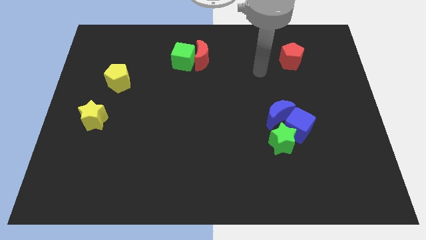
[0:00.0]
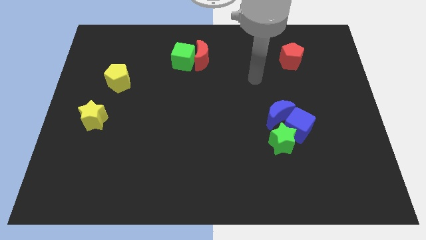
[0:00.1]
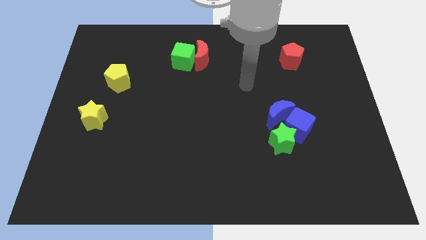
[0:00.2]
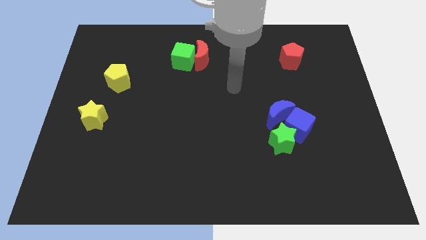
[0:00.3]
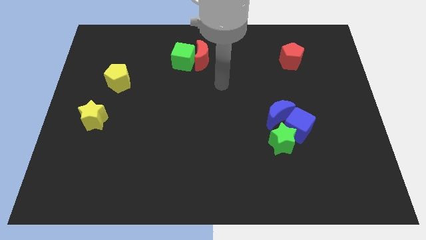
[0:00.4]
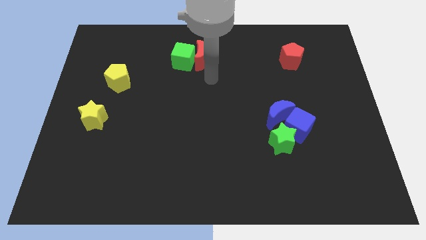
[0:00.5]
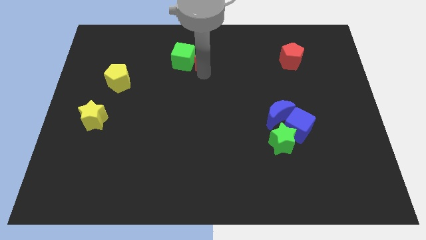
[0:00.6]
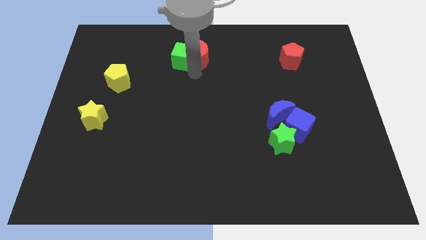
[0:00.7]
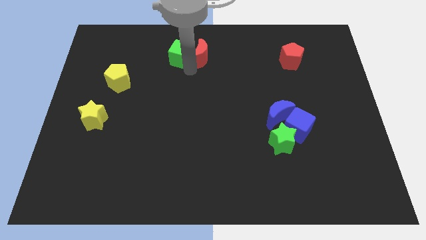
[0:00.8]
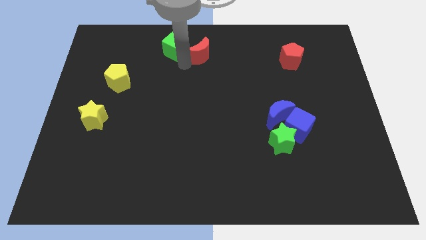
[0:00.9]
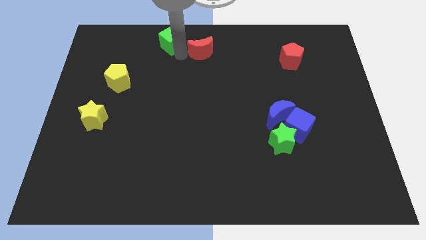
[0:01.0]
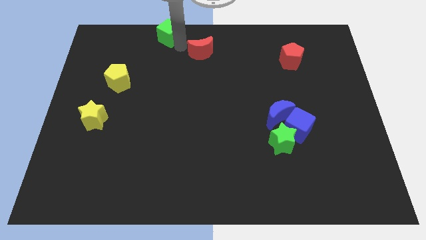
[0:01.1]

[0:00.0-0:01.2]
move the red moon away from the green cube

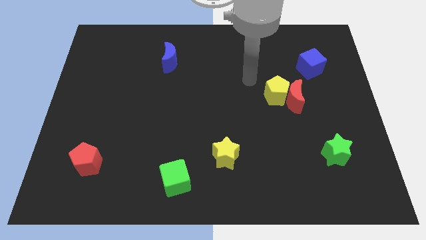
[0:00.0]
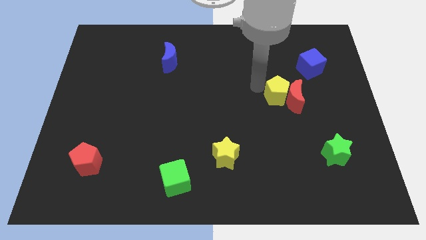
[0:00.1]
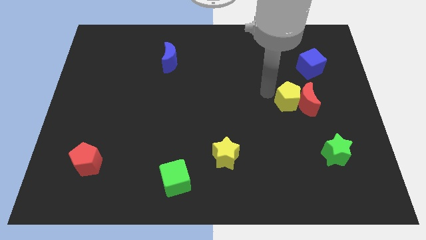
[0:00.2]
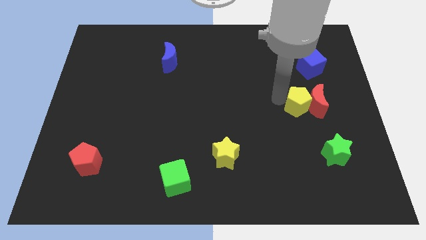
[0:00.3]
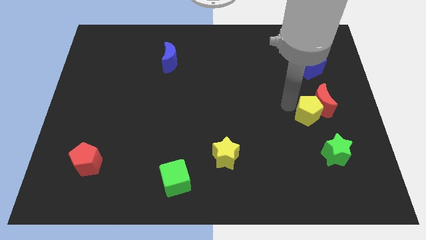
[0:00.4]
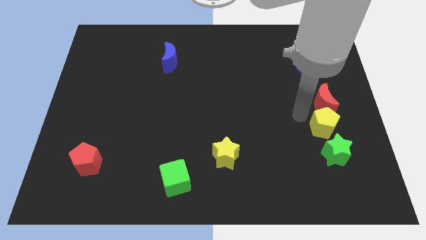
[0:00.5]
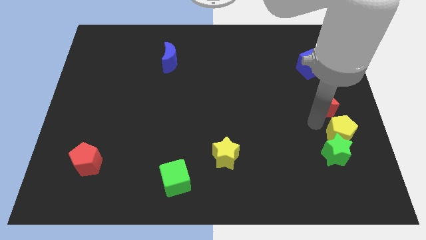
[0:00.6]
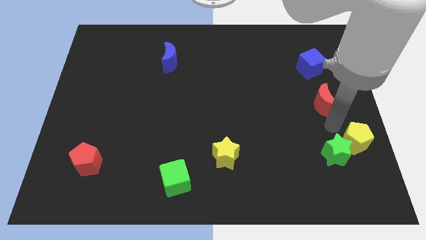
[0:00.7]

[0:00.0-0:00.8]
move the red moon away from the yellow pentagon

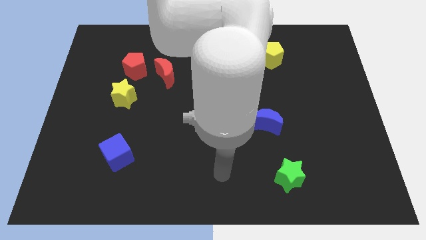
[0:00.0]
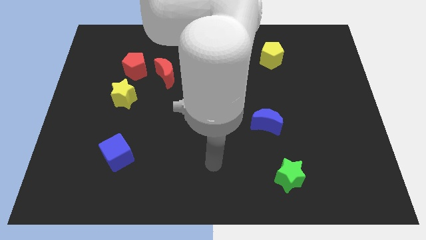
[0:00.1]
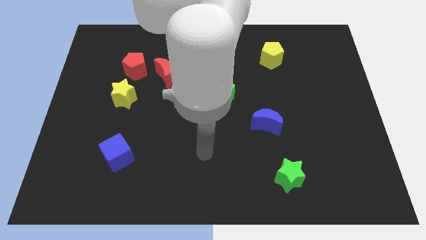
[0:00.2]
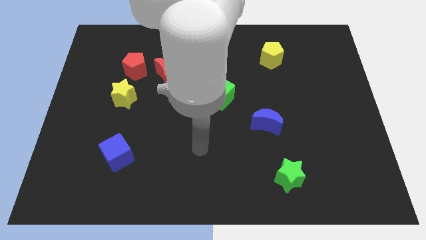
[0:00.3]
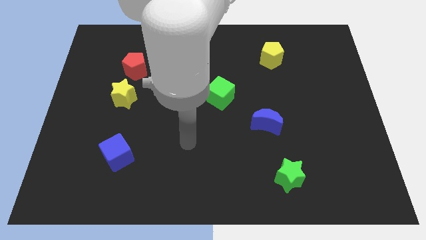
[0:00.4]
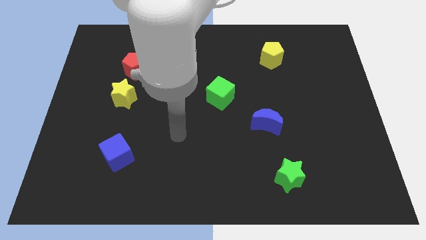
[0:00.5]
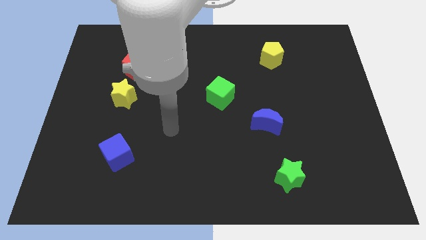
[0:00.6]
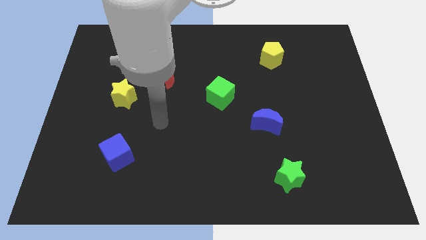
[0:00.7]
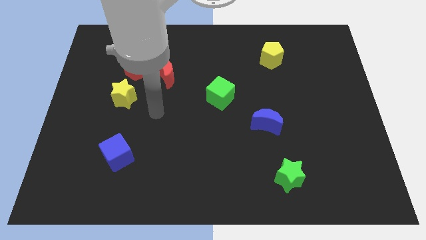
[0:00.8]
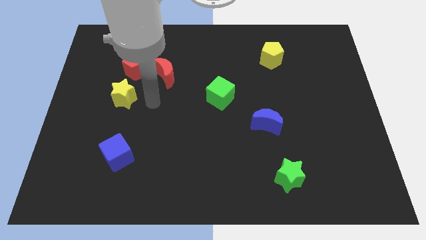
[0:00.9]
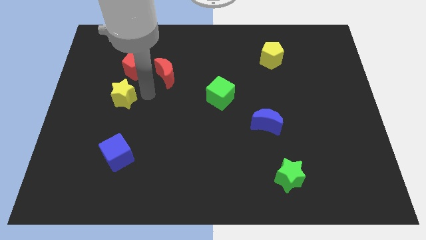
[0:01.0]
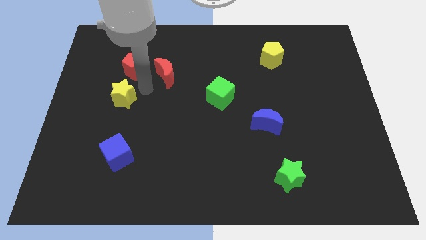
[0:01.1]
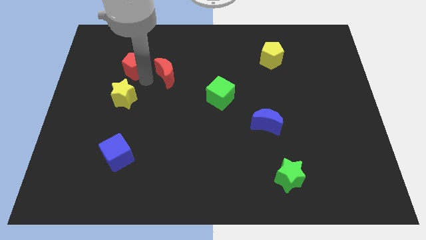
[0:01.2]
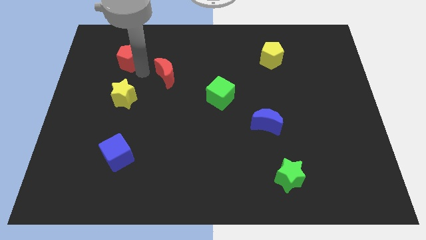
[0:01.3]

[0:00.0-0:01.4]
pull the red moon apart from the red pentagon

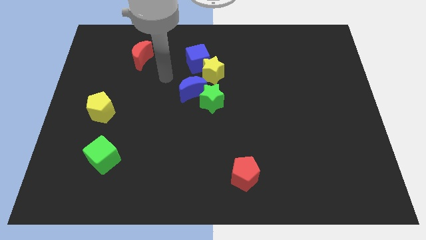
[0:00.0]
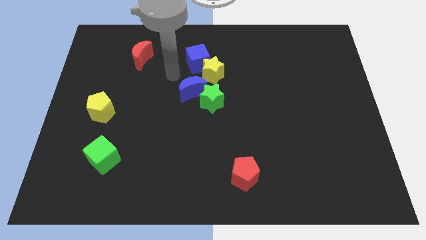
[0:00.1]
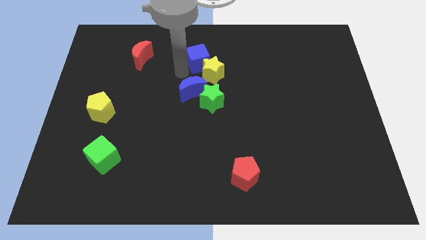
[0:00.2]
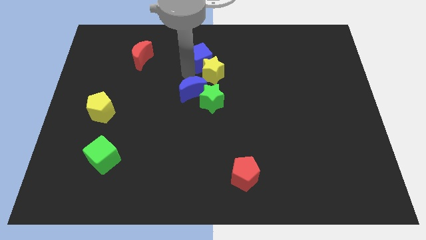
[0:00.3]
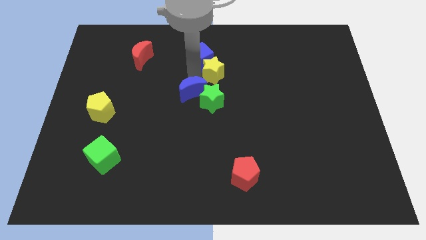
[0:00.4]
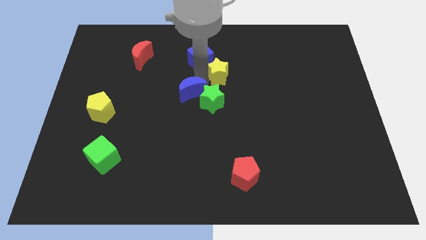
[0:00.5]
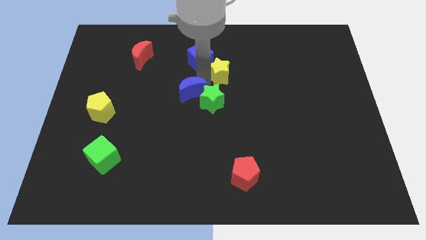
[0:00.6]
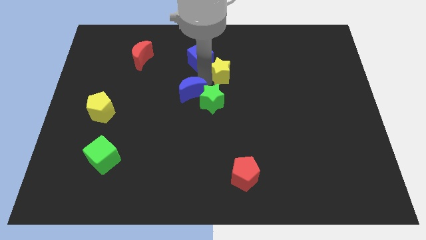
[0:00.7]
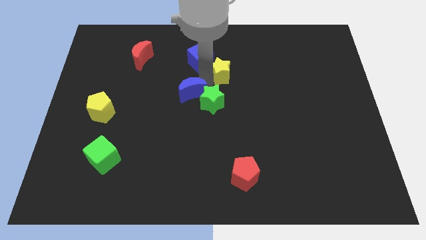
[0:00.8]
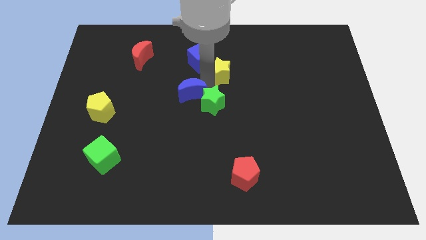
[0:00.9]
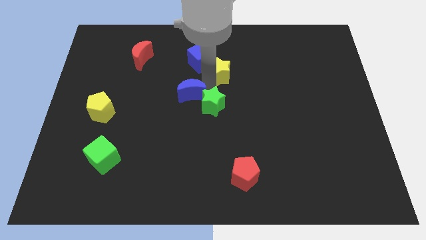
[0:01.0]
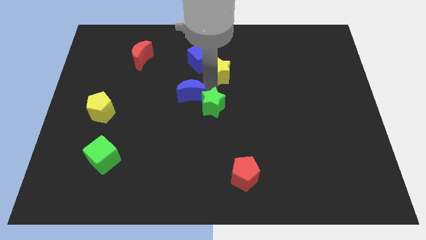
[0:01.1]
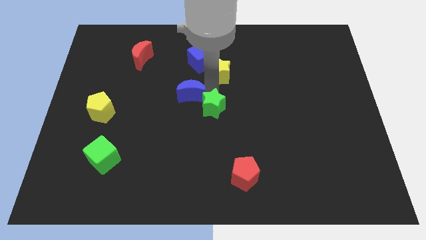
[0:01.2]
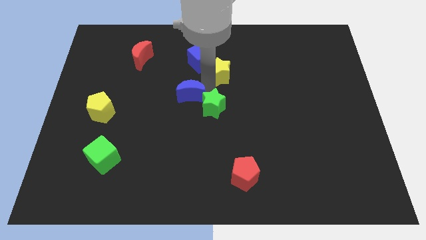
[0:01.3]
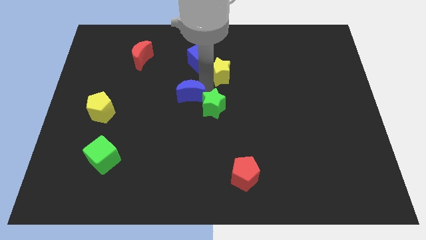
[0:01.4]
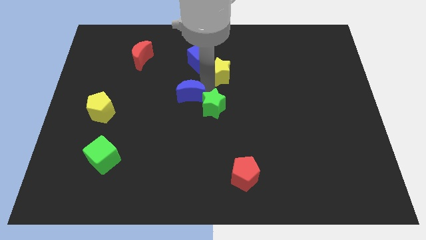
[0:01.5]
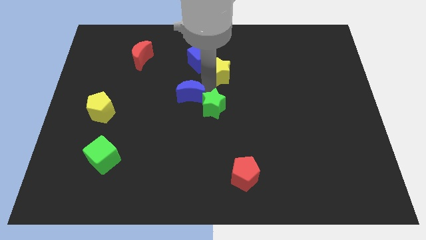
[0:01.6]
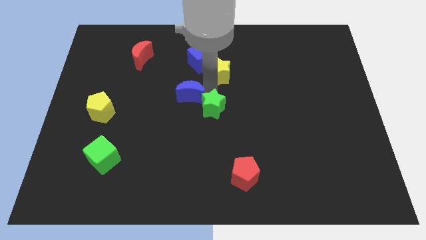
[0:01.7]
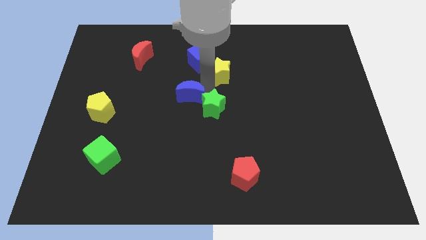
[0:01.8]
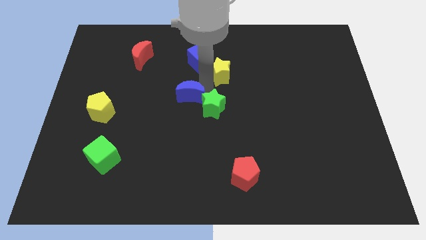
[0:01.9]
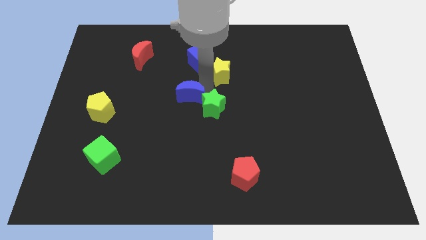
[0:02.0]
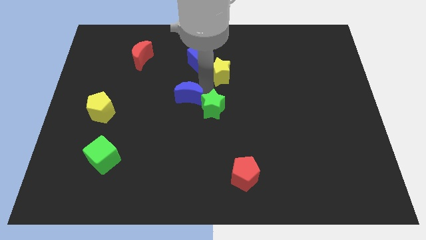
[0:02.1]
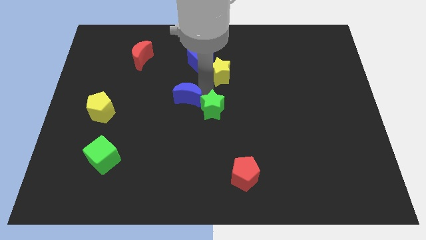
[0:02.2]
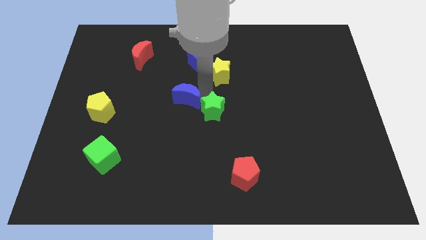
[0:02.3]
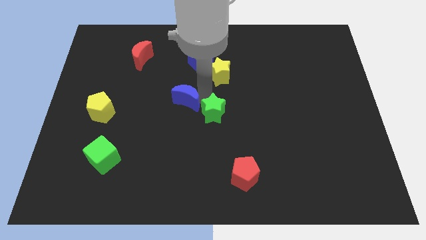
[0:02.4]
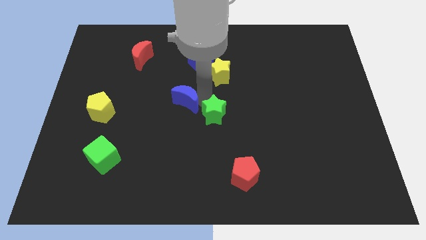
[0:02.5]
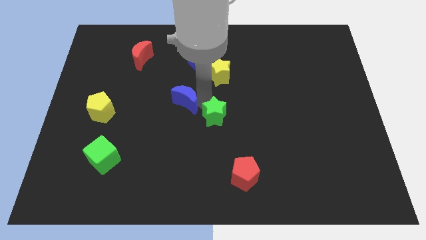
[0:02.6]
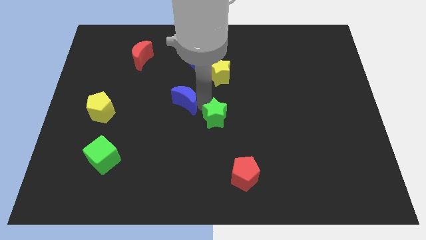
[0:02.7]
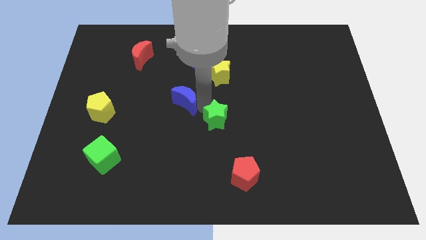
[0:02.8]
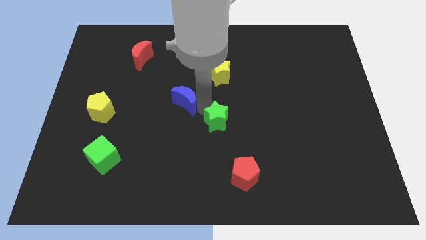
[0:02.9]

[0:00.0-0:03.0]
move the green star away from the blue moon and yellow star

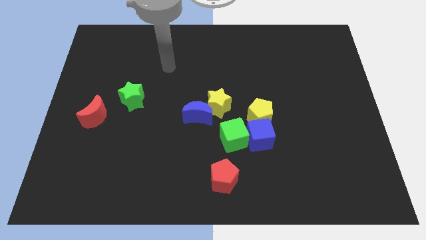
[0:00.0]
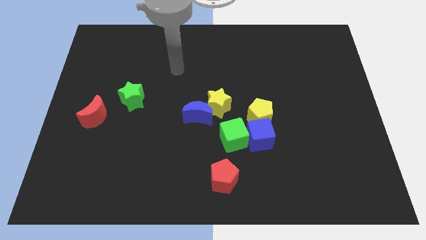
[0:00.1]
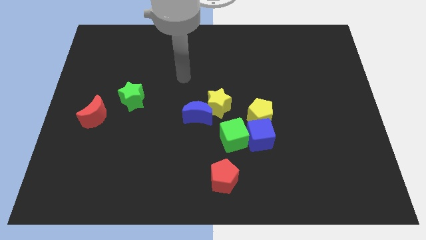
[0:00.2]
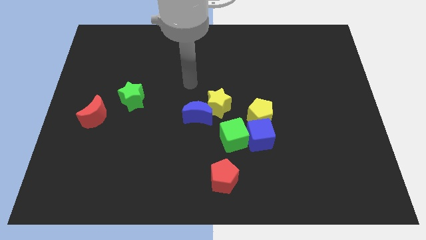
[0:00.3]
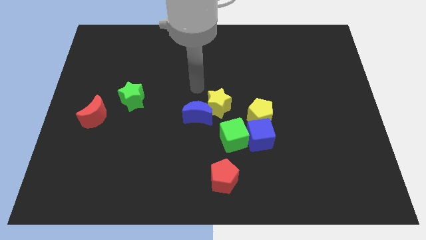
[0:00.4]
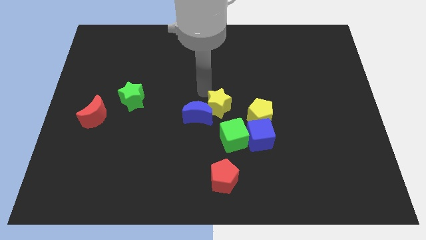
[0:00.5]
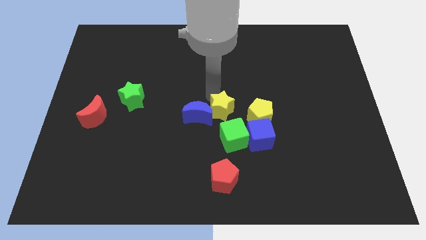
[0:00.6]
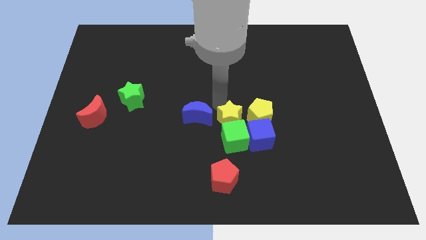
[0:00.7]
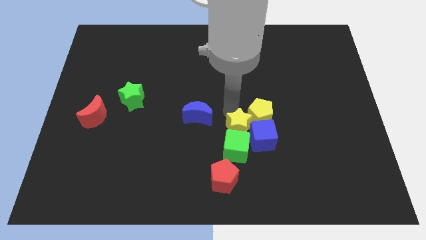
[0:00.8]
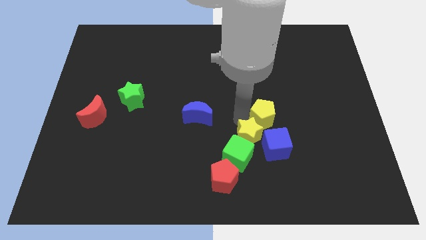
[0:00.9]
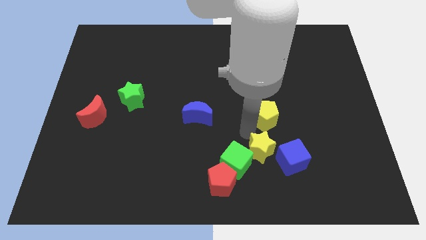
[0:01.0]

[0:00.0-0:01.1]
pull the blue cube apart from the green cube and yellow pentagon

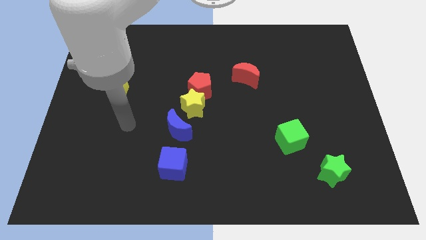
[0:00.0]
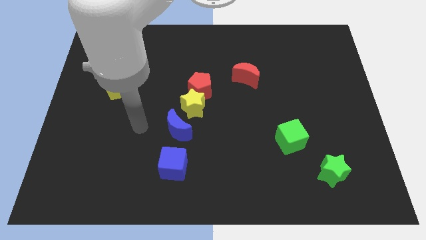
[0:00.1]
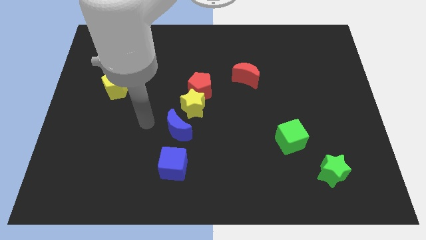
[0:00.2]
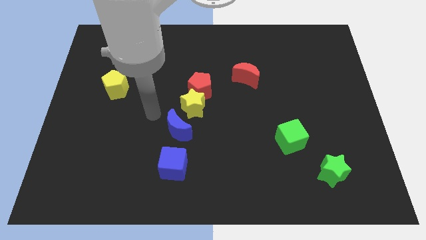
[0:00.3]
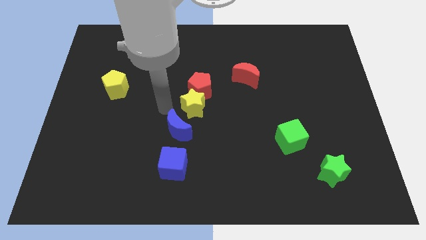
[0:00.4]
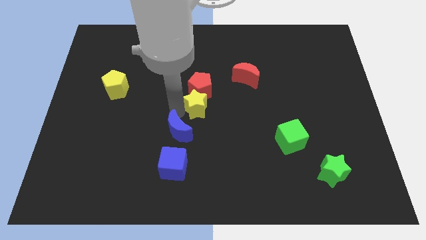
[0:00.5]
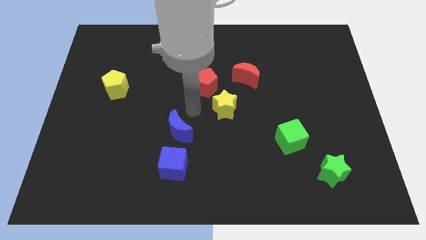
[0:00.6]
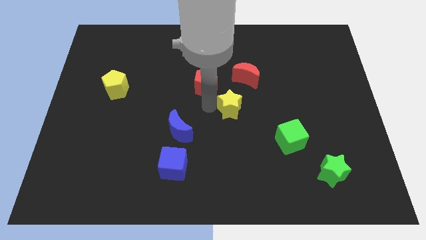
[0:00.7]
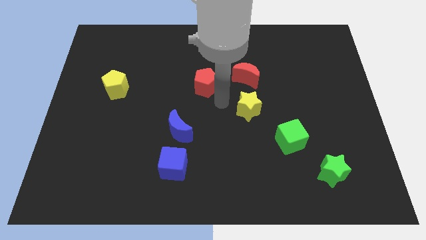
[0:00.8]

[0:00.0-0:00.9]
separate the red pentagon from the yellow star

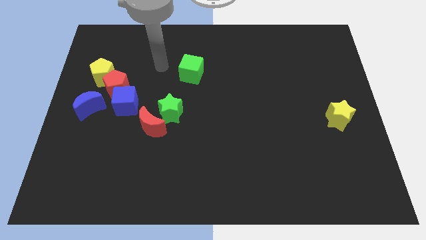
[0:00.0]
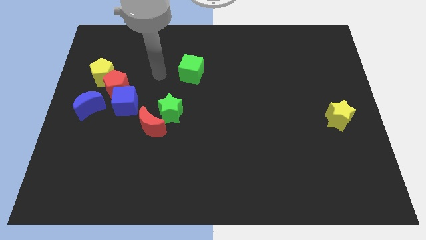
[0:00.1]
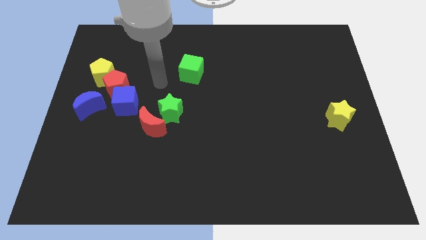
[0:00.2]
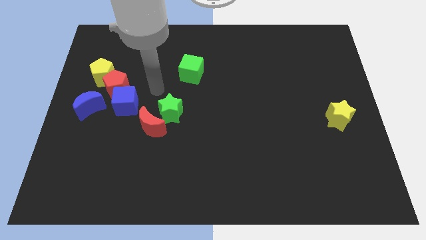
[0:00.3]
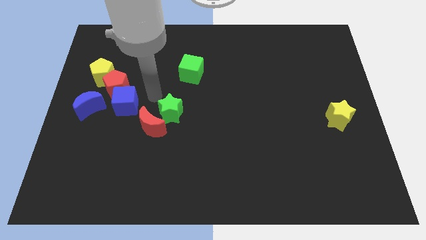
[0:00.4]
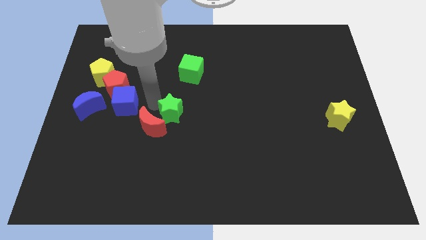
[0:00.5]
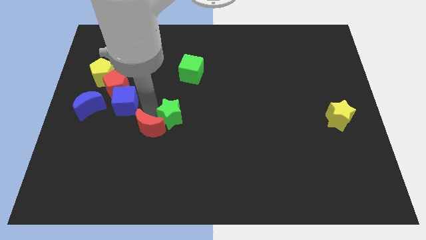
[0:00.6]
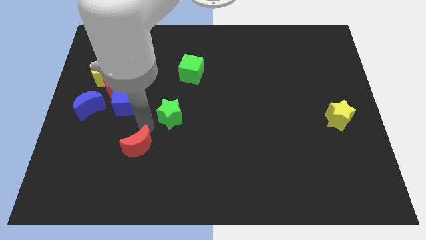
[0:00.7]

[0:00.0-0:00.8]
pull the green star apart from the red moon
